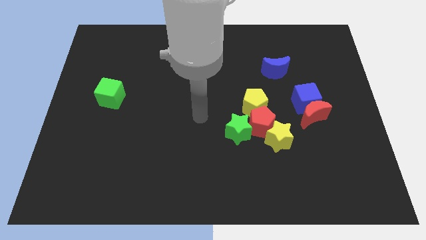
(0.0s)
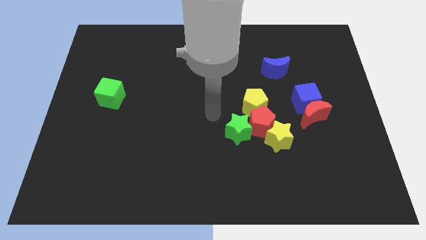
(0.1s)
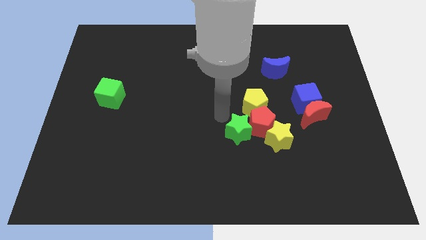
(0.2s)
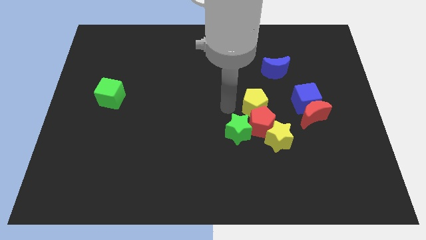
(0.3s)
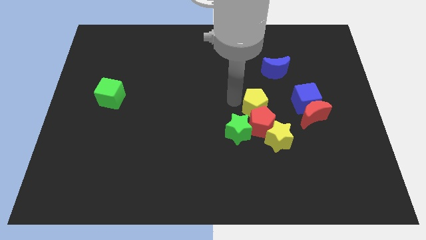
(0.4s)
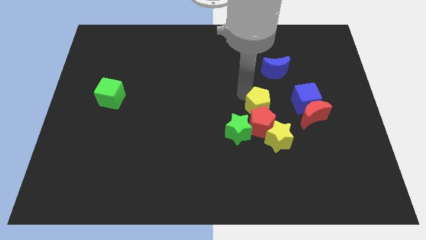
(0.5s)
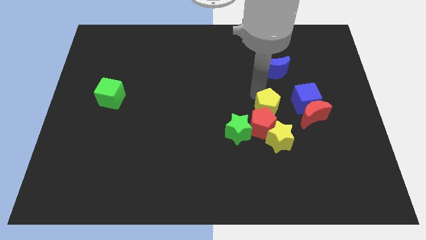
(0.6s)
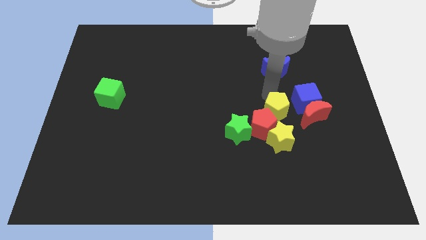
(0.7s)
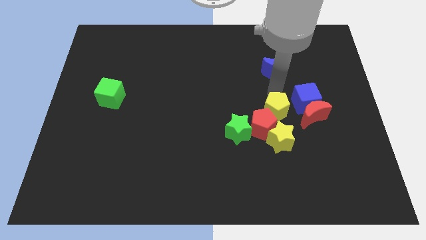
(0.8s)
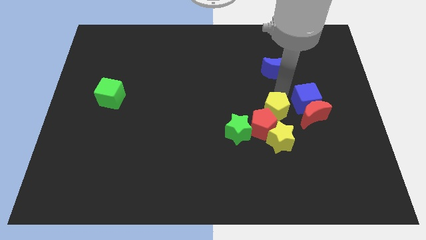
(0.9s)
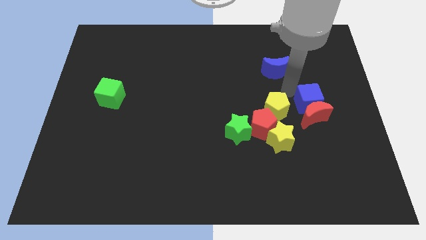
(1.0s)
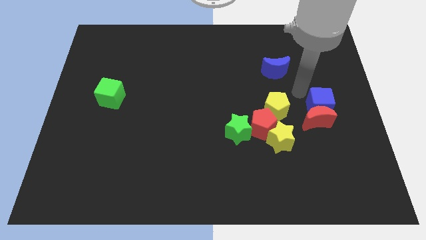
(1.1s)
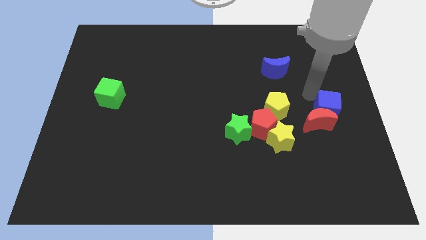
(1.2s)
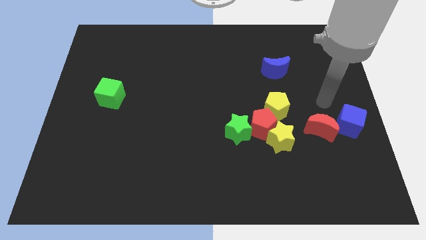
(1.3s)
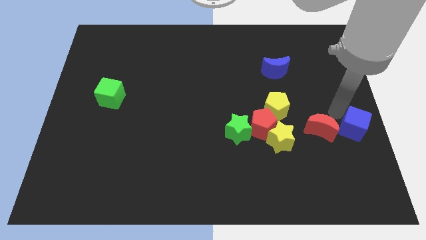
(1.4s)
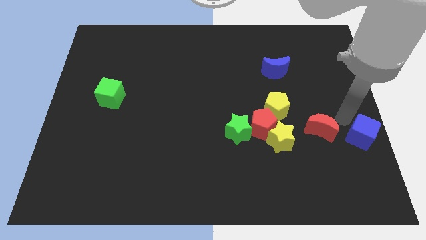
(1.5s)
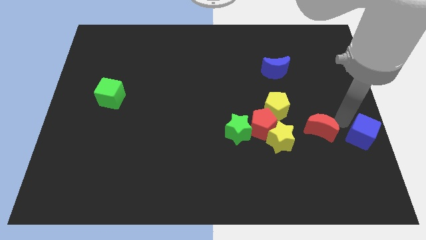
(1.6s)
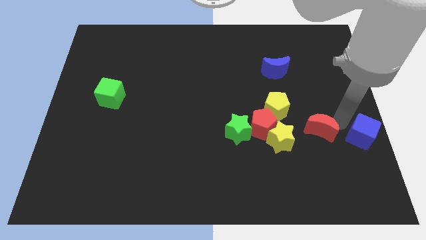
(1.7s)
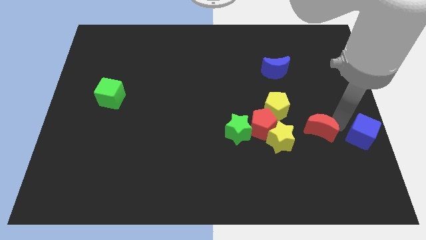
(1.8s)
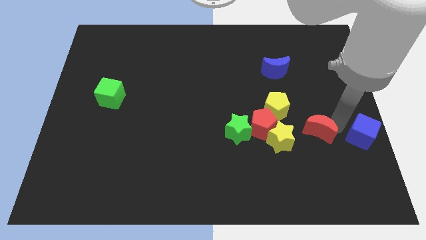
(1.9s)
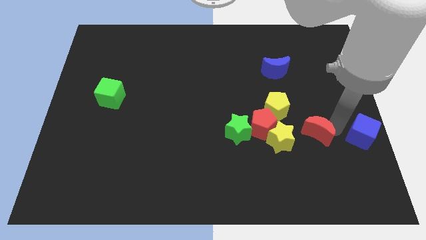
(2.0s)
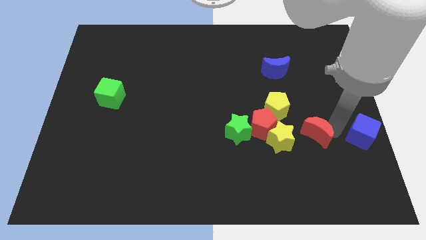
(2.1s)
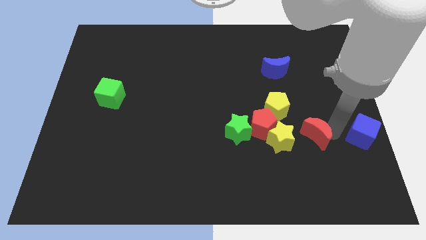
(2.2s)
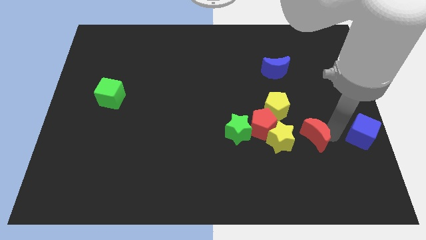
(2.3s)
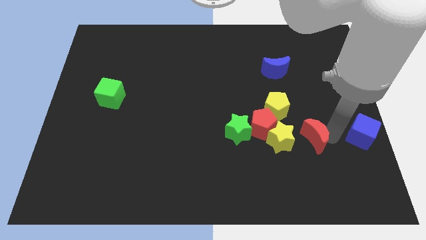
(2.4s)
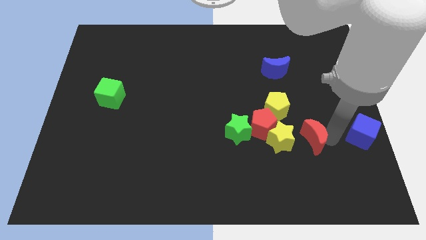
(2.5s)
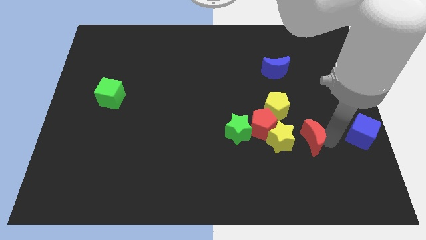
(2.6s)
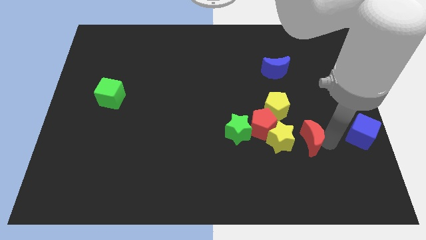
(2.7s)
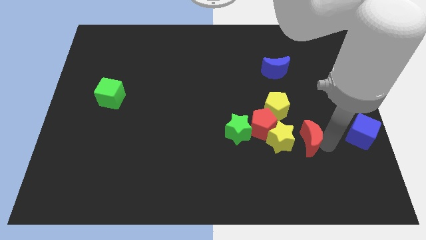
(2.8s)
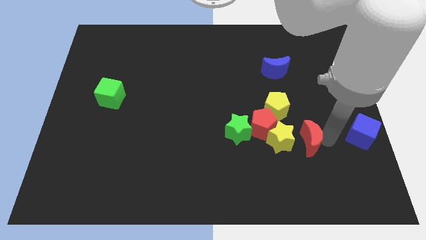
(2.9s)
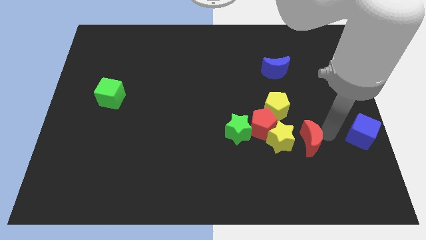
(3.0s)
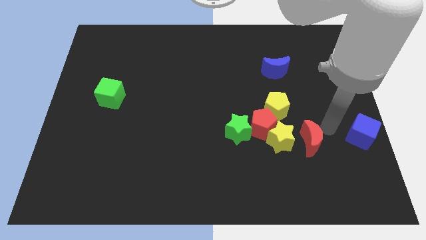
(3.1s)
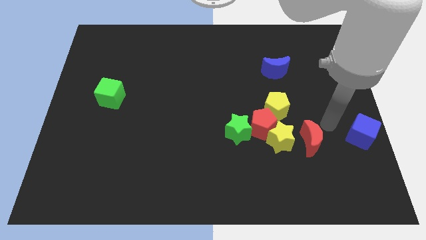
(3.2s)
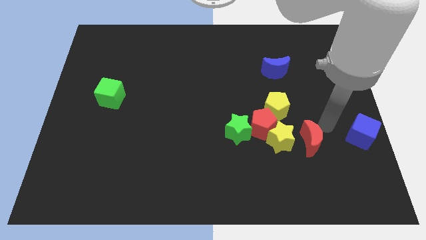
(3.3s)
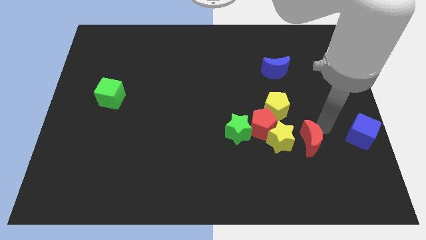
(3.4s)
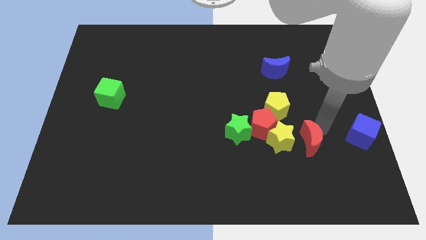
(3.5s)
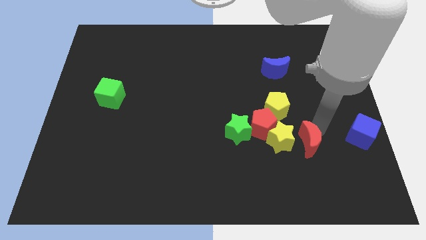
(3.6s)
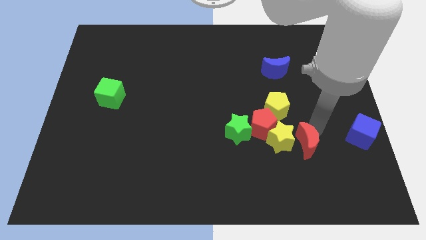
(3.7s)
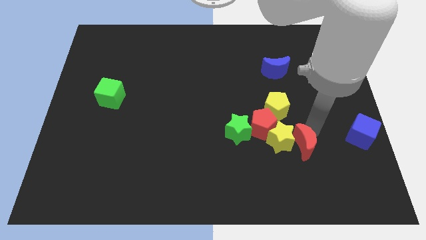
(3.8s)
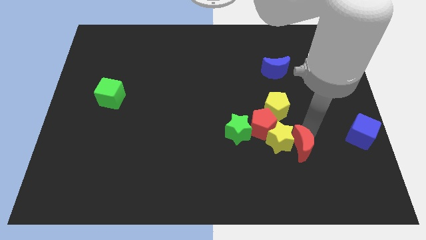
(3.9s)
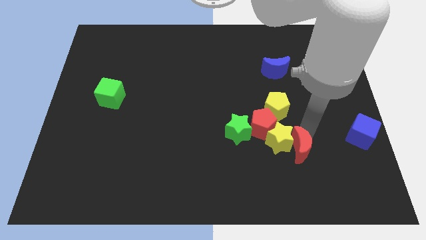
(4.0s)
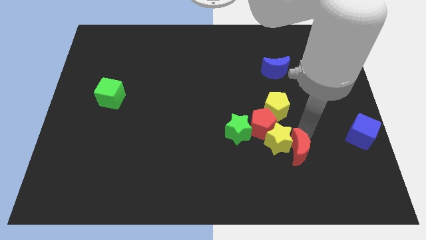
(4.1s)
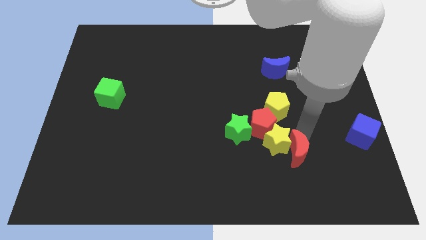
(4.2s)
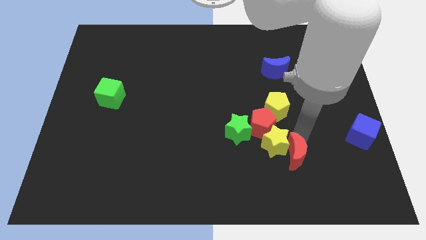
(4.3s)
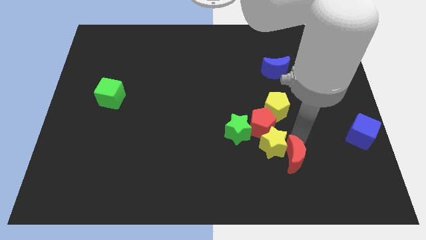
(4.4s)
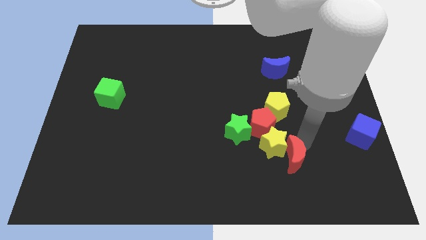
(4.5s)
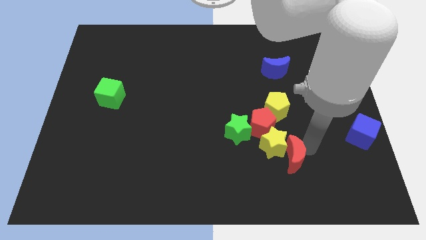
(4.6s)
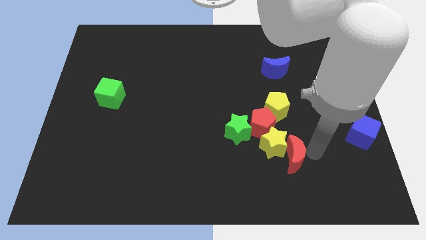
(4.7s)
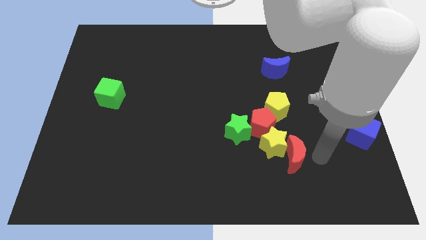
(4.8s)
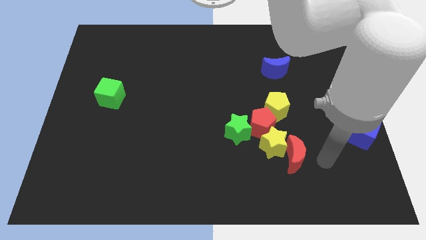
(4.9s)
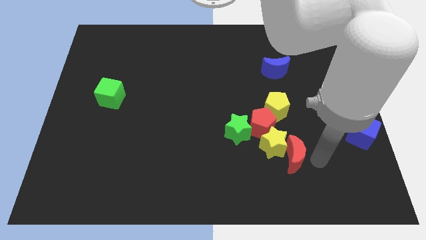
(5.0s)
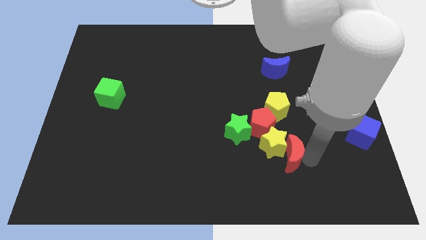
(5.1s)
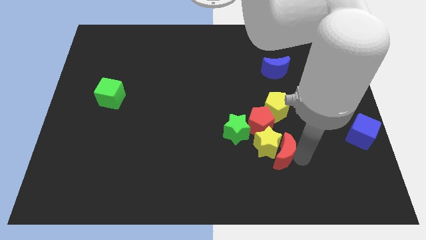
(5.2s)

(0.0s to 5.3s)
put the red moon diagonally down and to the right of the green star

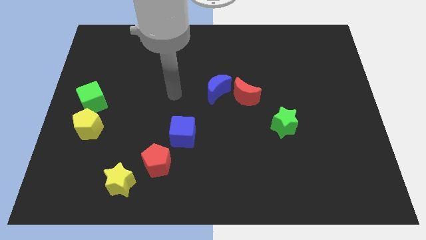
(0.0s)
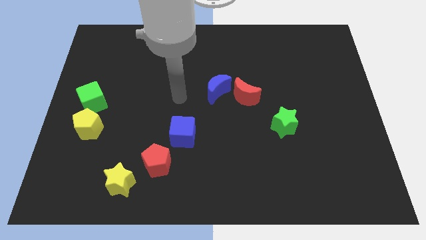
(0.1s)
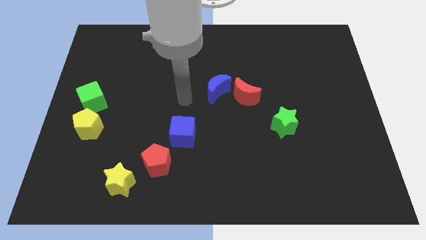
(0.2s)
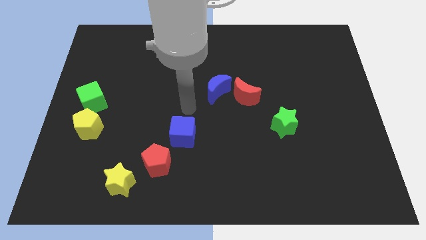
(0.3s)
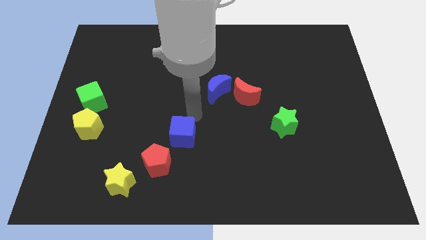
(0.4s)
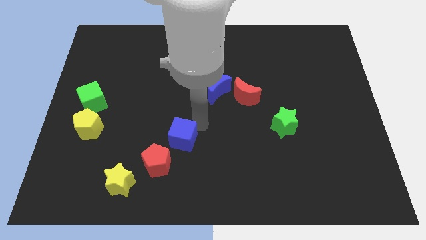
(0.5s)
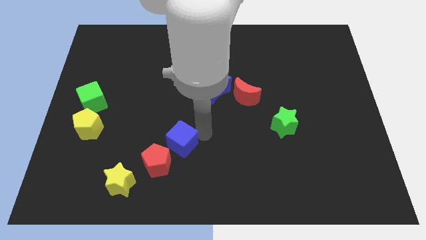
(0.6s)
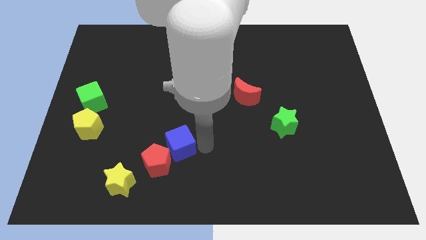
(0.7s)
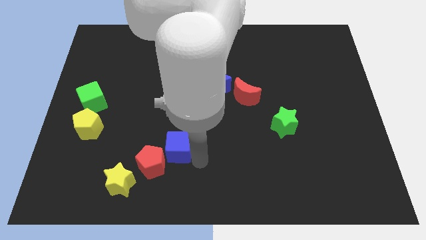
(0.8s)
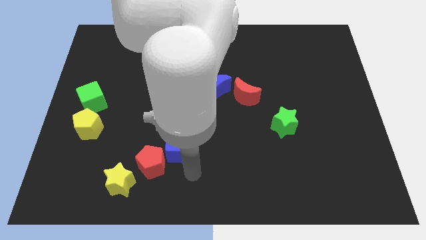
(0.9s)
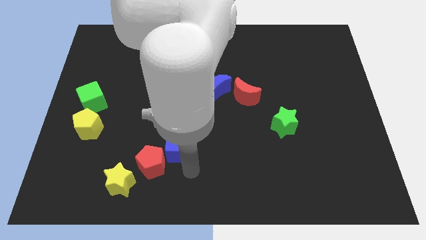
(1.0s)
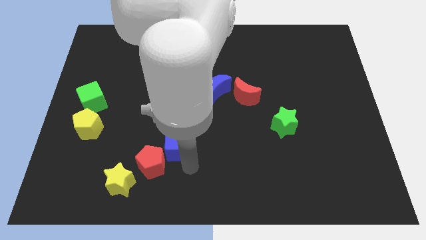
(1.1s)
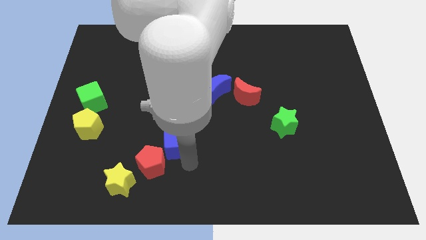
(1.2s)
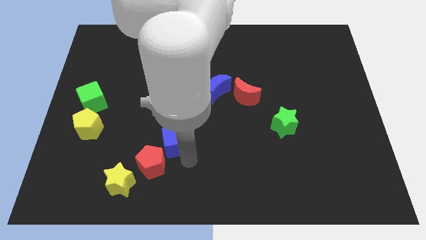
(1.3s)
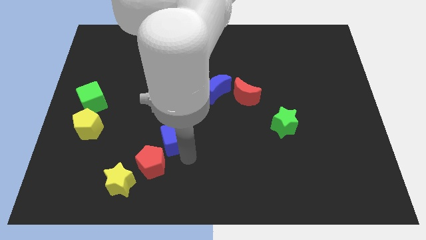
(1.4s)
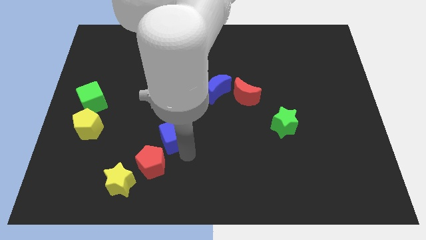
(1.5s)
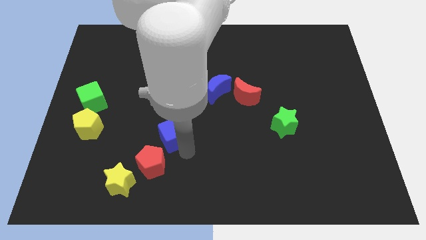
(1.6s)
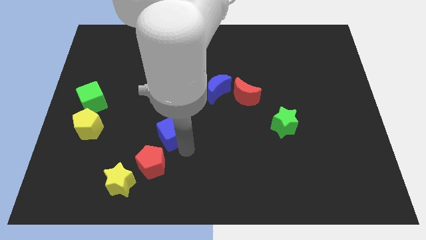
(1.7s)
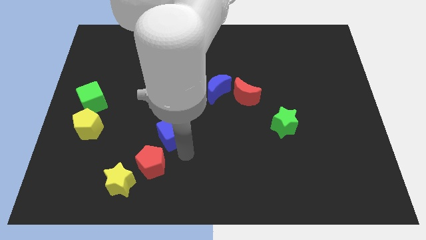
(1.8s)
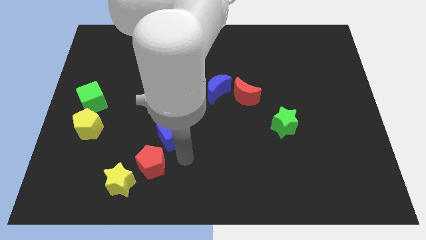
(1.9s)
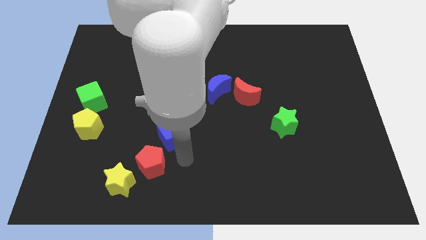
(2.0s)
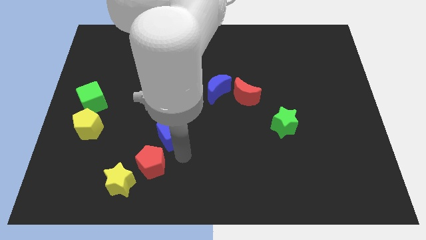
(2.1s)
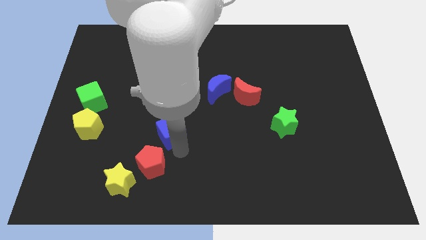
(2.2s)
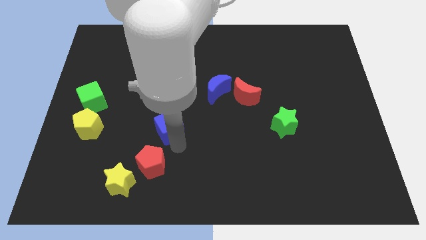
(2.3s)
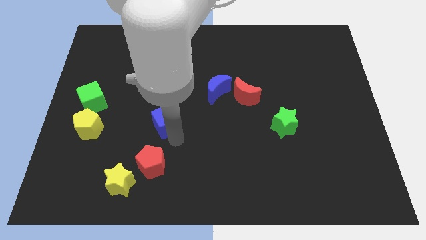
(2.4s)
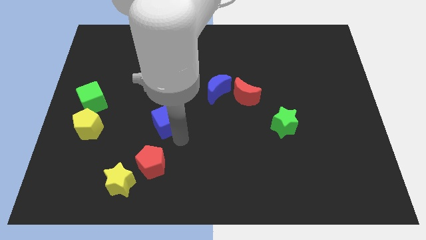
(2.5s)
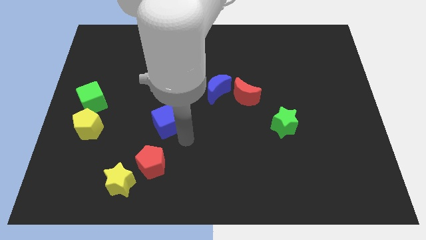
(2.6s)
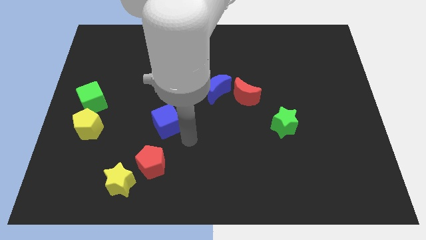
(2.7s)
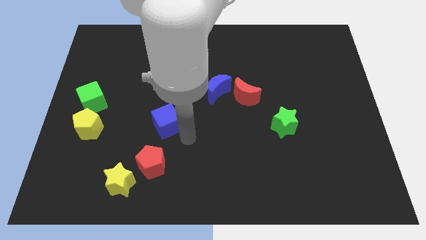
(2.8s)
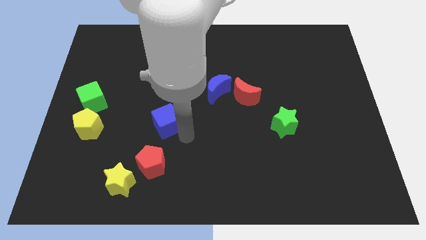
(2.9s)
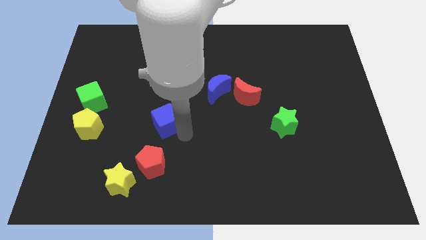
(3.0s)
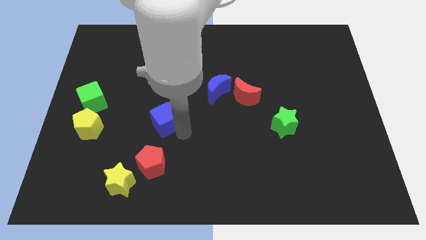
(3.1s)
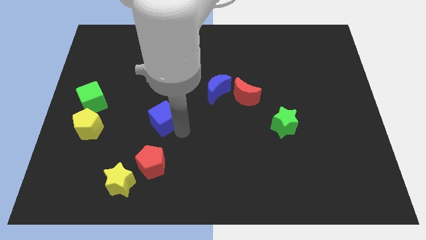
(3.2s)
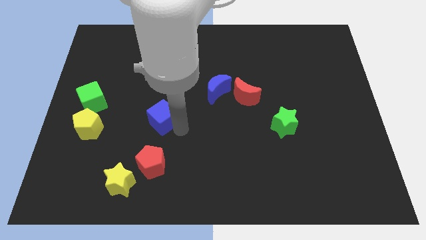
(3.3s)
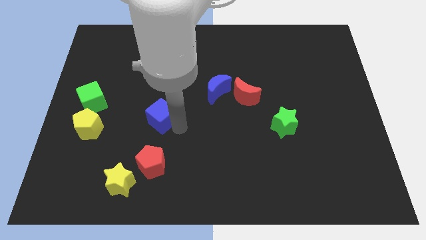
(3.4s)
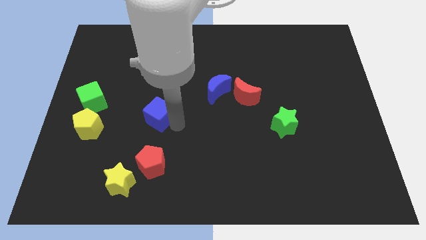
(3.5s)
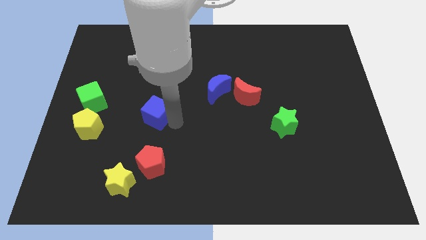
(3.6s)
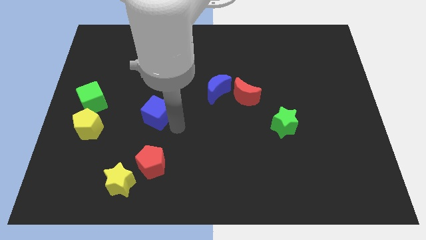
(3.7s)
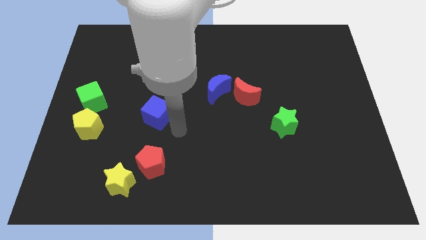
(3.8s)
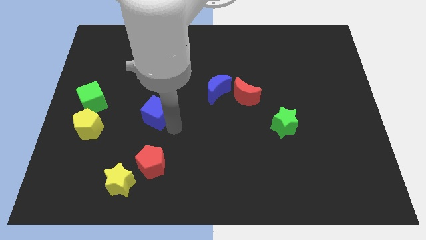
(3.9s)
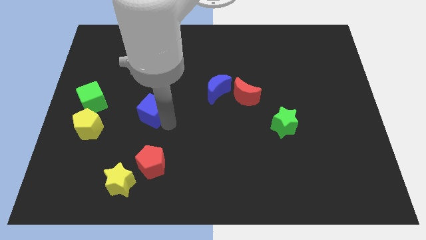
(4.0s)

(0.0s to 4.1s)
move the blue cube just right of the green cube
